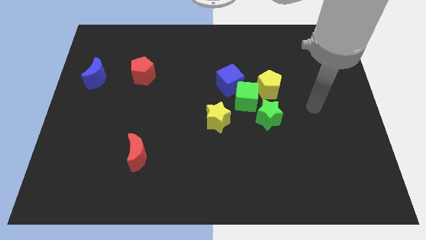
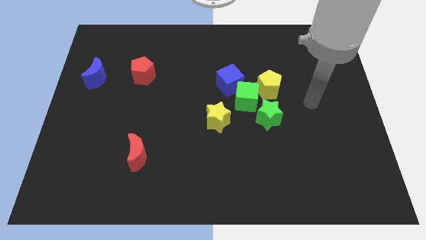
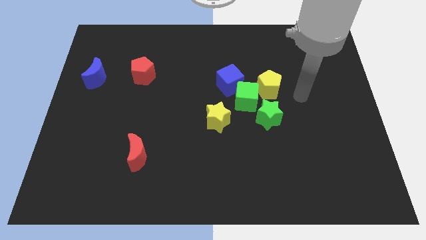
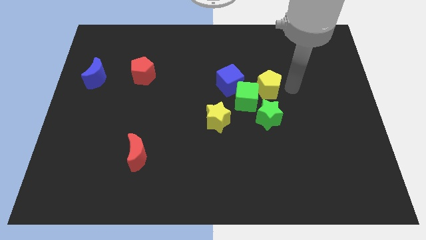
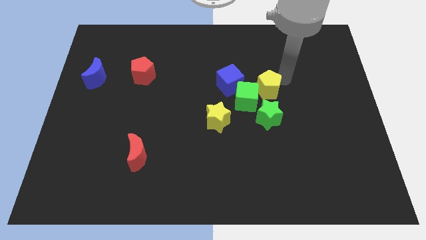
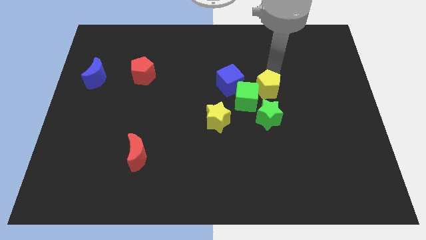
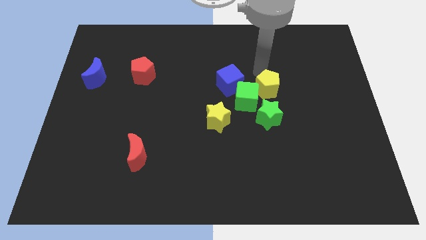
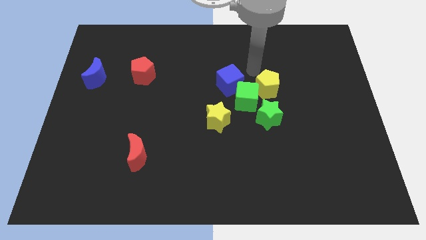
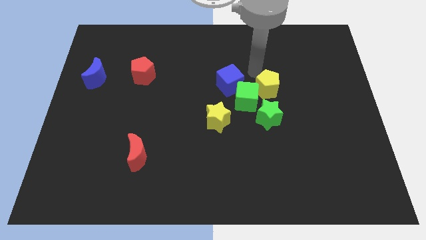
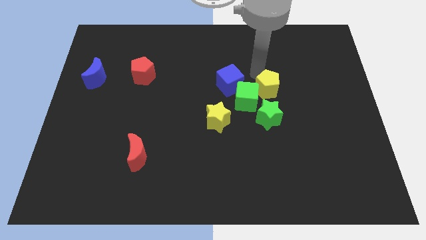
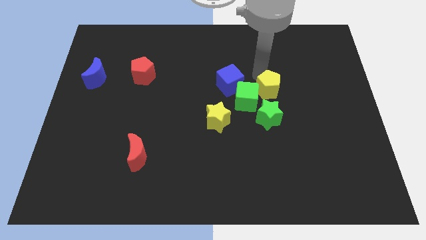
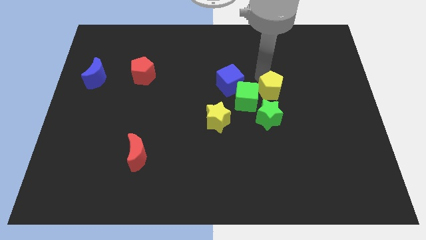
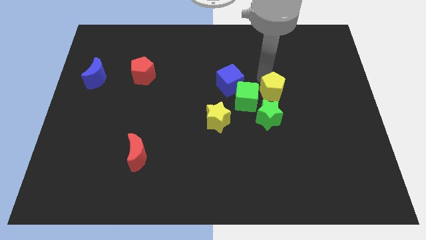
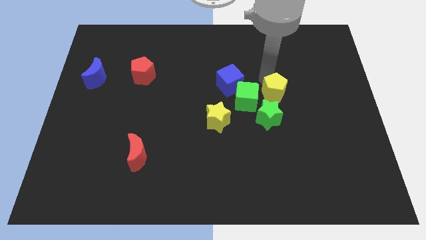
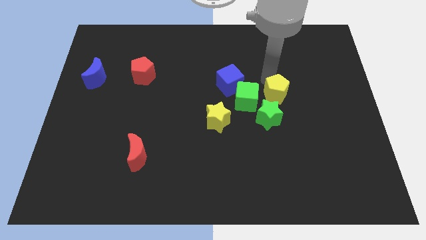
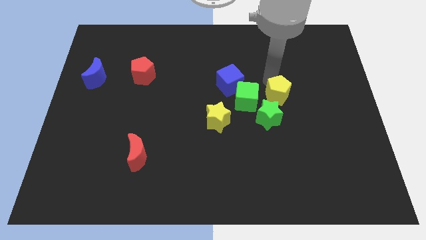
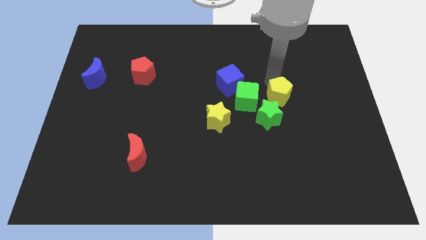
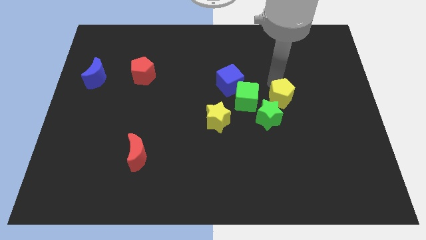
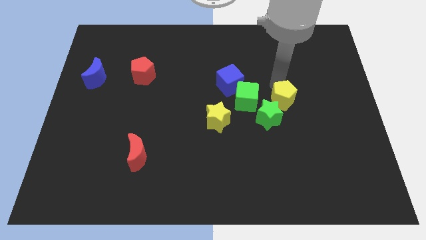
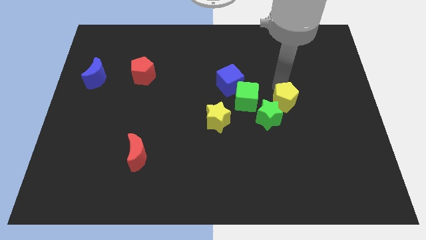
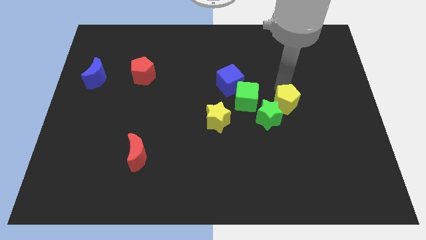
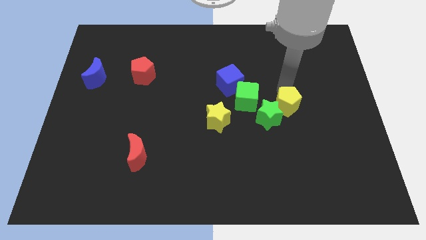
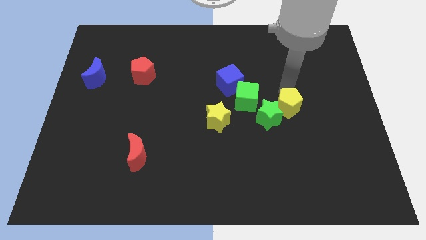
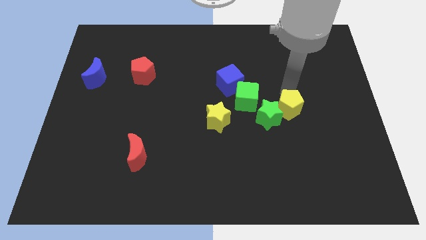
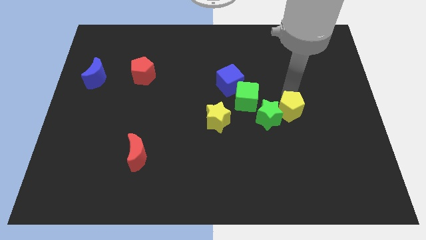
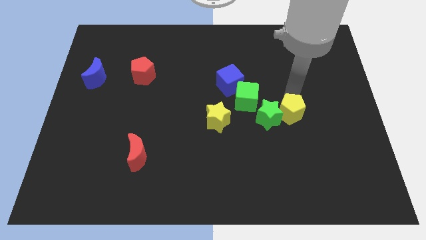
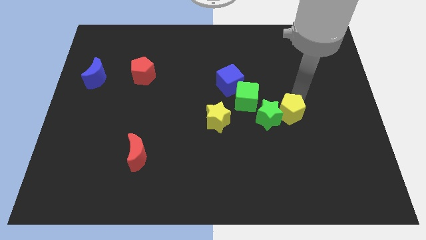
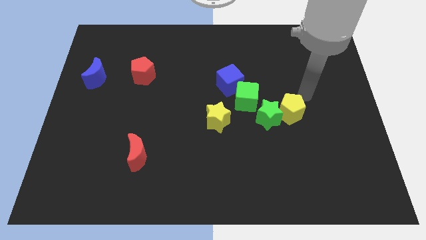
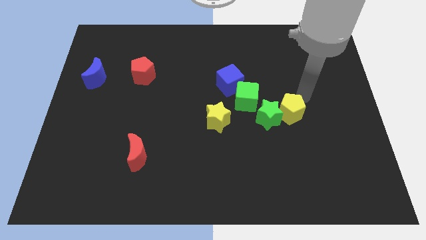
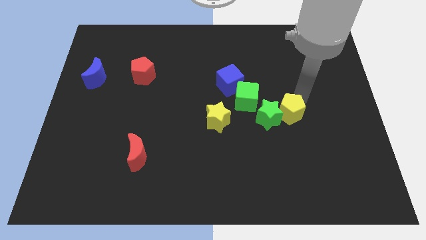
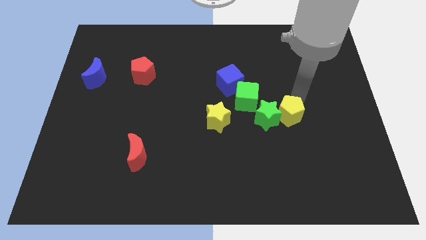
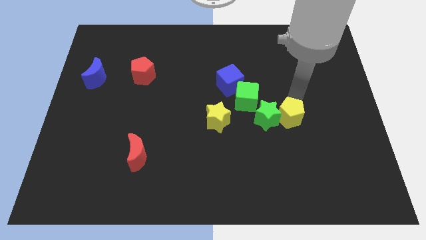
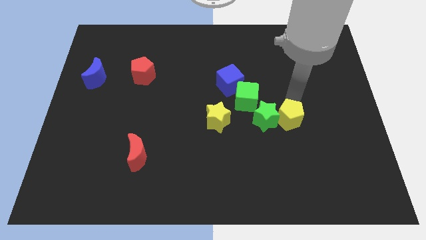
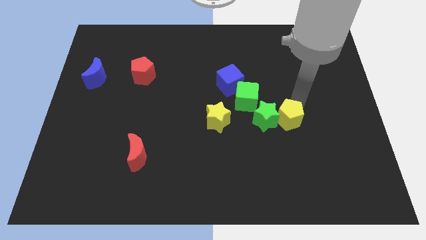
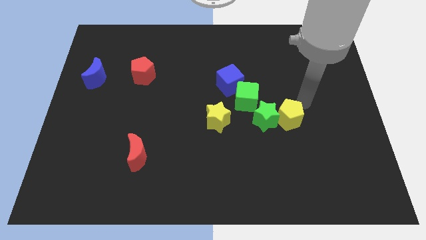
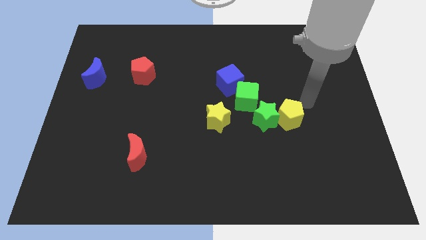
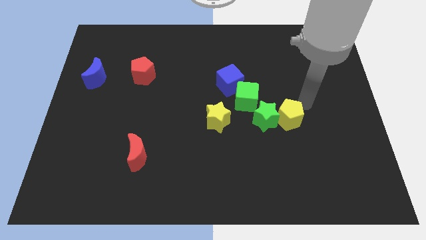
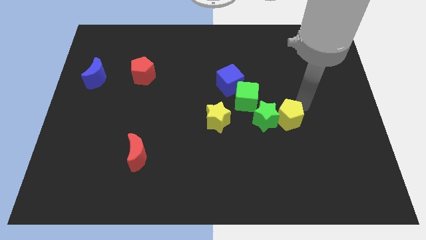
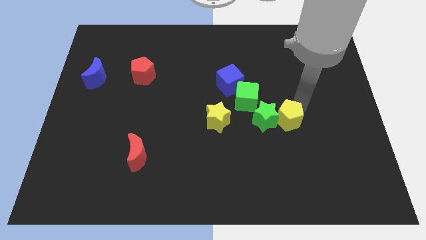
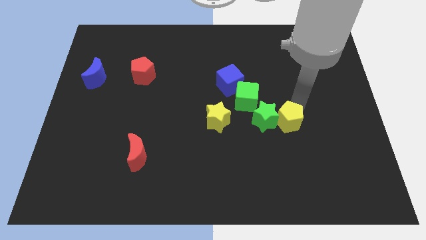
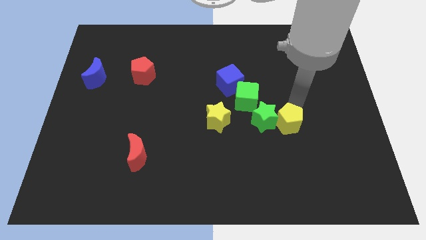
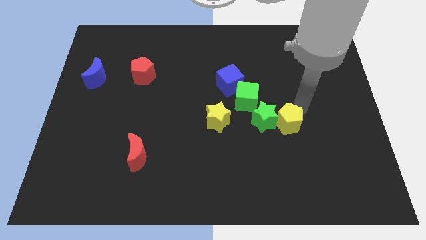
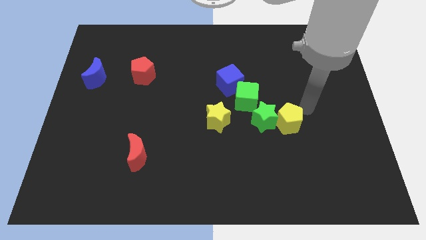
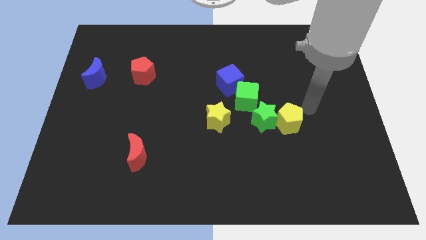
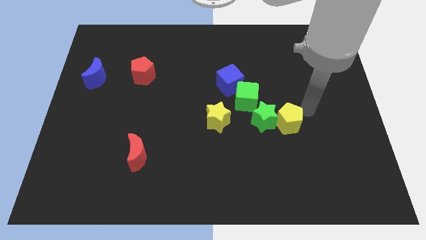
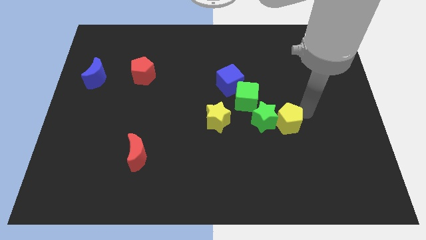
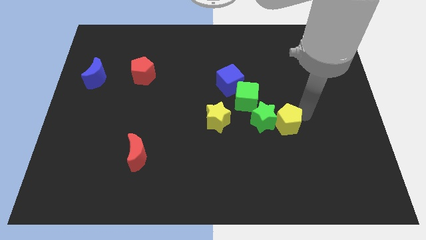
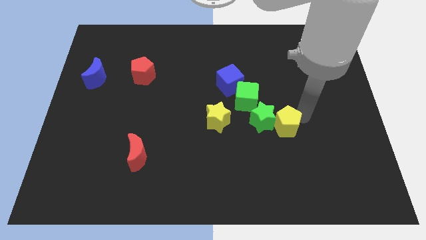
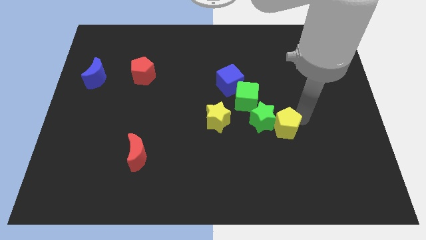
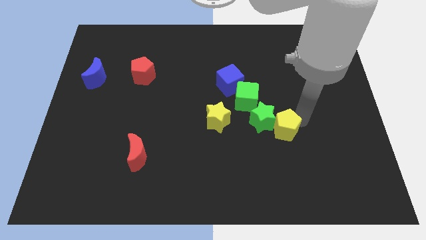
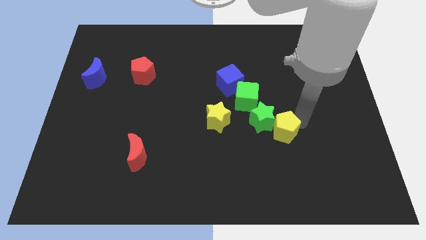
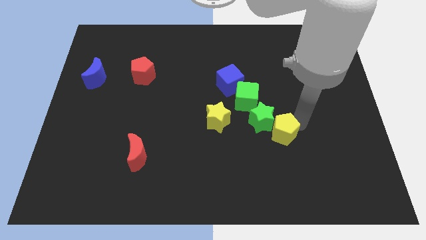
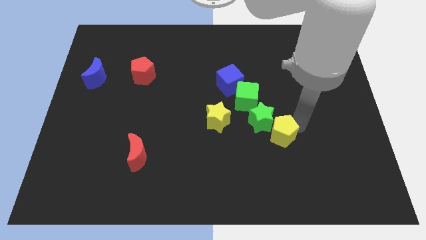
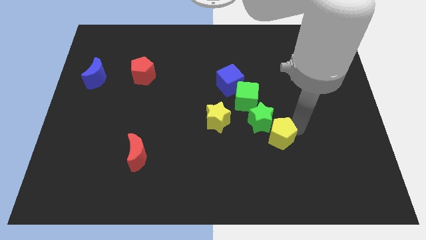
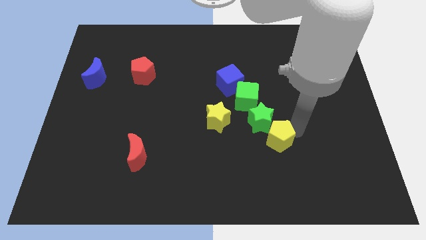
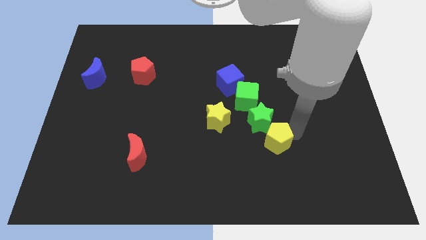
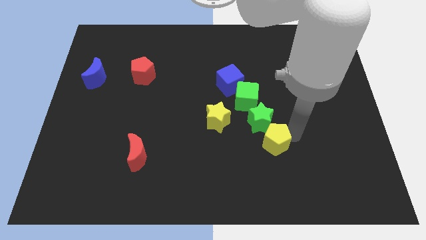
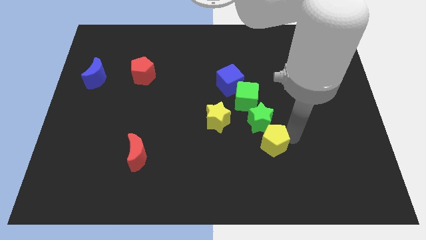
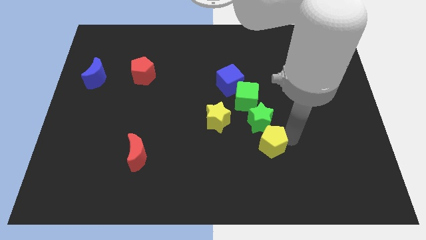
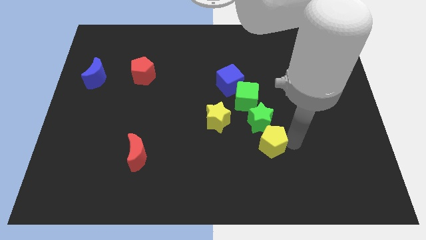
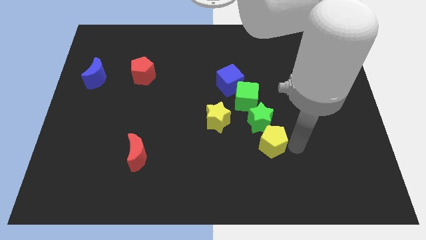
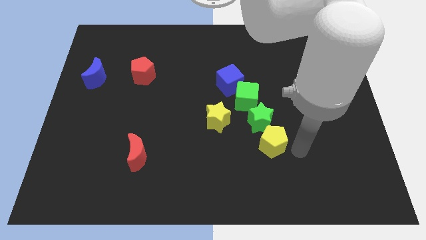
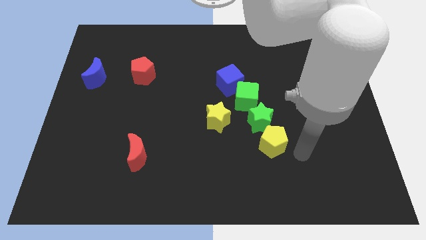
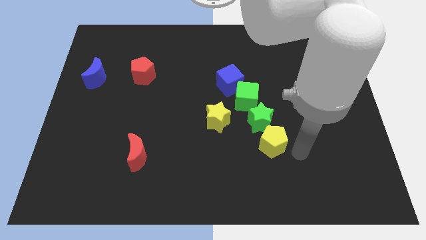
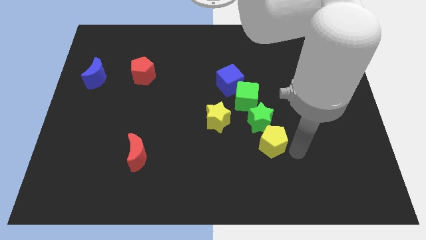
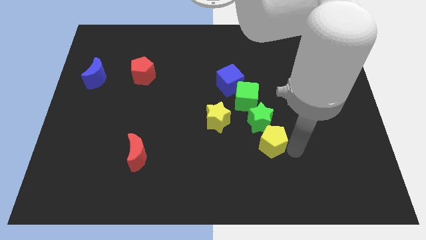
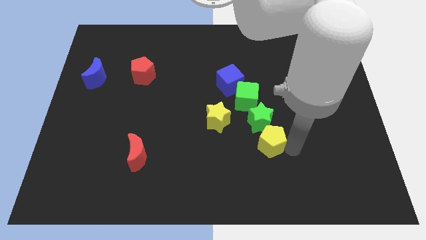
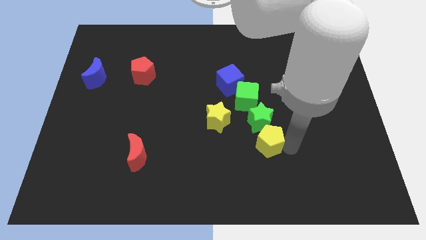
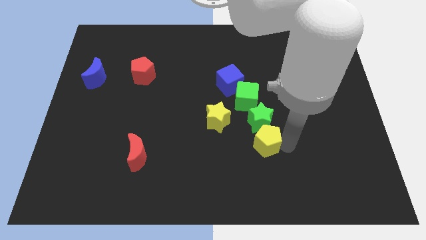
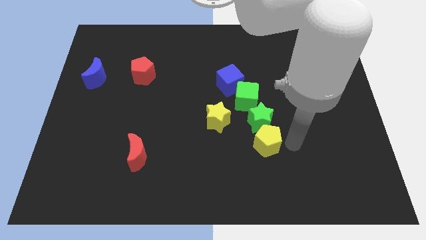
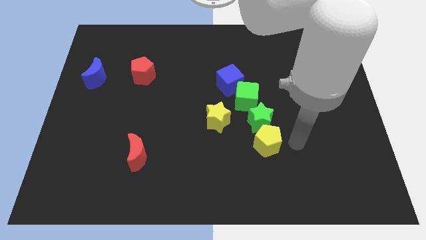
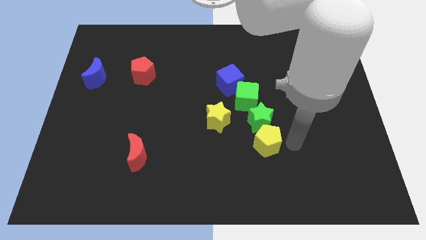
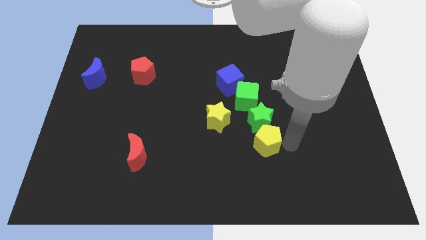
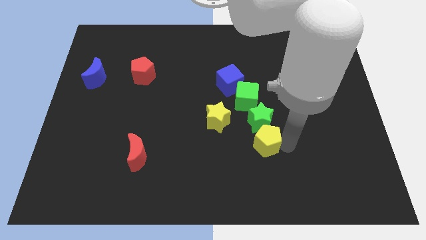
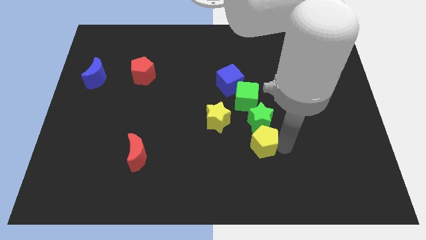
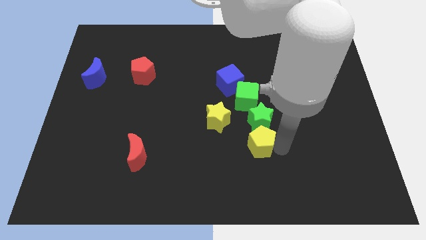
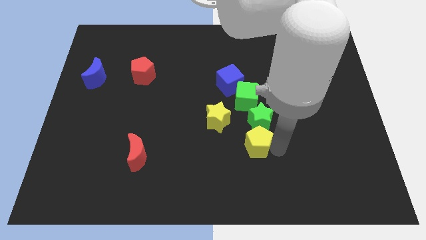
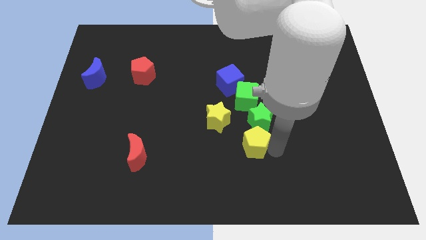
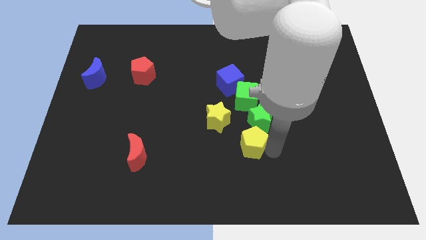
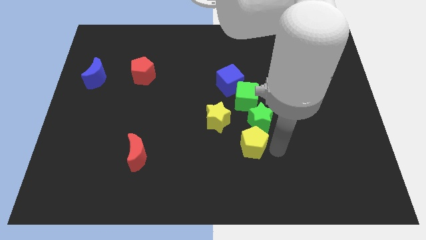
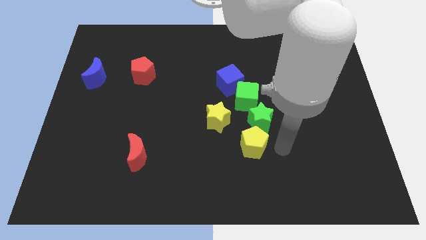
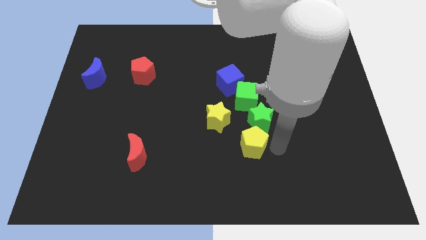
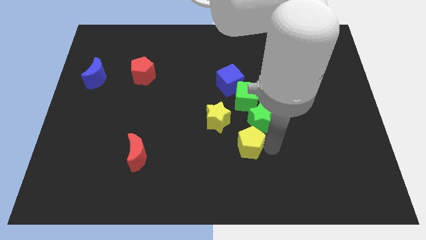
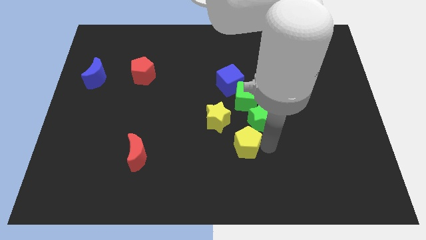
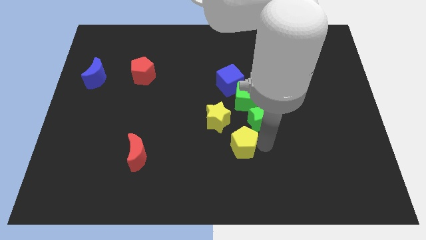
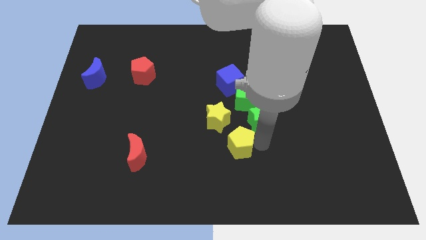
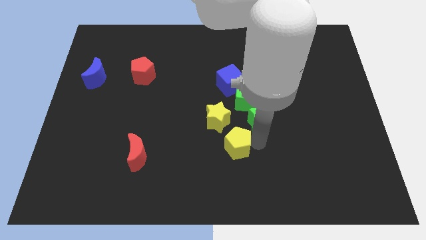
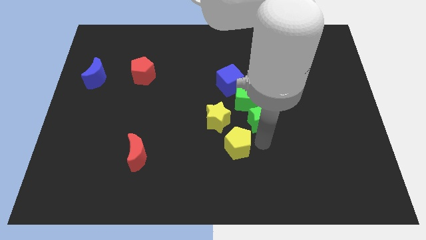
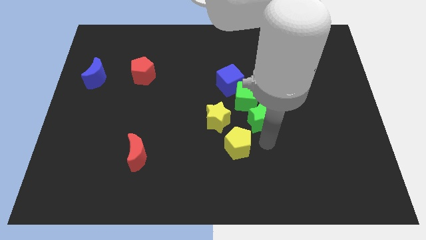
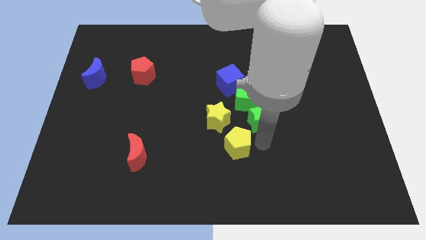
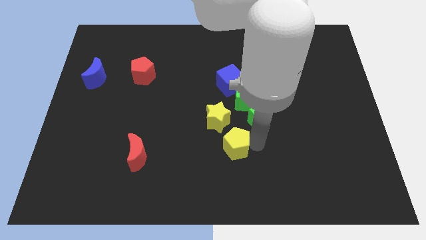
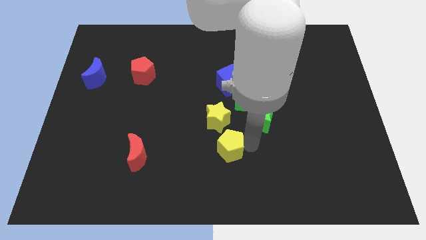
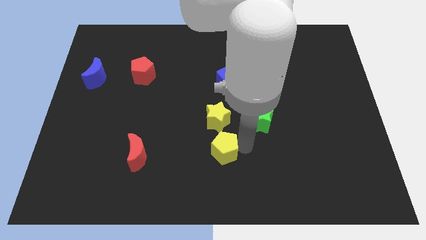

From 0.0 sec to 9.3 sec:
slide the yellow pentagon down and to the left diagonally
